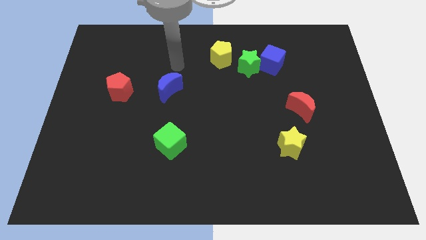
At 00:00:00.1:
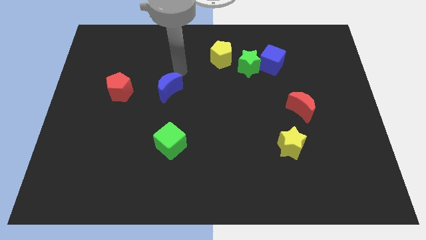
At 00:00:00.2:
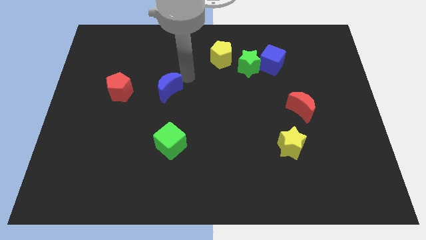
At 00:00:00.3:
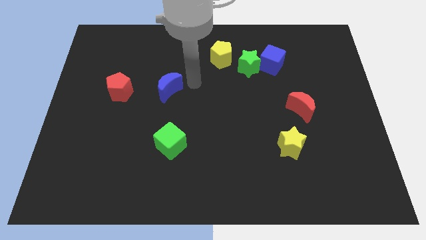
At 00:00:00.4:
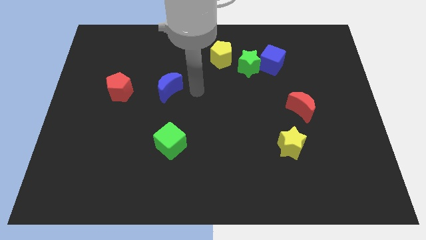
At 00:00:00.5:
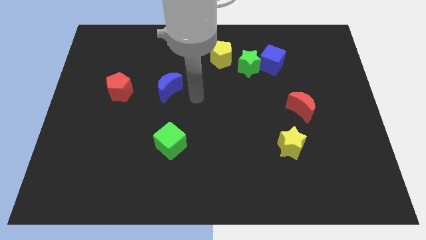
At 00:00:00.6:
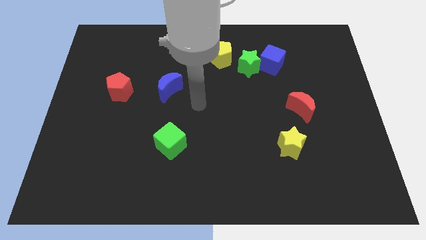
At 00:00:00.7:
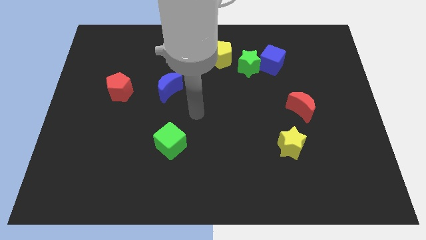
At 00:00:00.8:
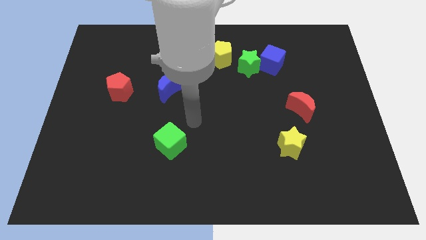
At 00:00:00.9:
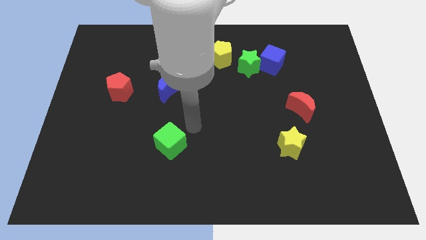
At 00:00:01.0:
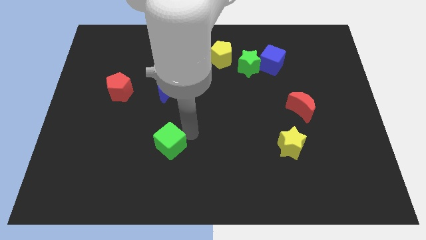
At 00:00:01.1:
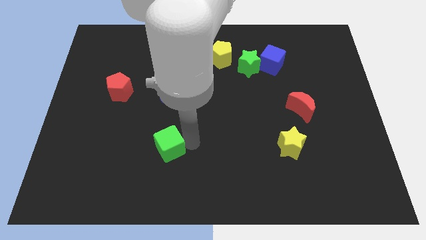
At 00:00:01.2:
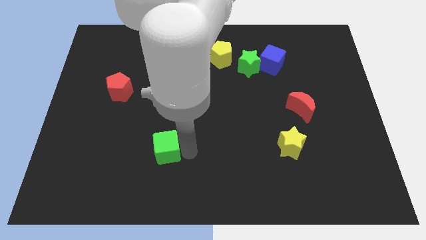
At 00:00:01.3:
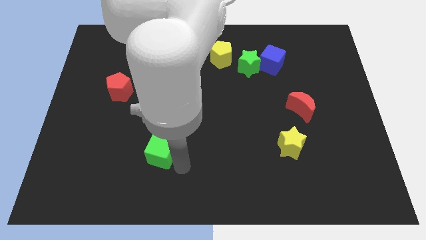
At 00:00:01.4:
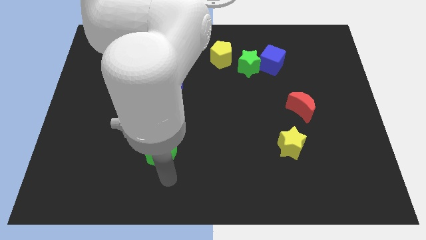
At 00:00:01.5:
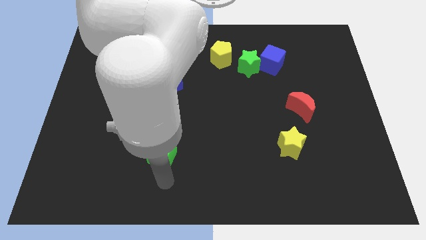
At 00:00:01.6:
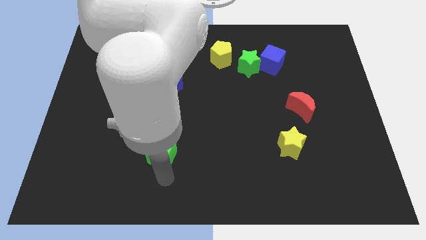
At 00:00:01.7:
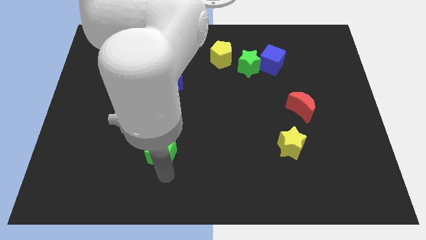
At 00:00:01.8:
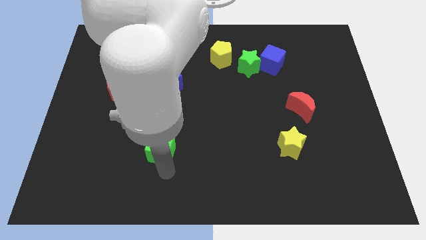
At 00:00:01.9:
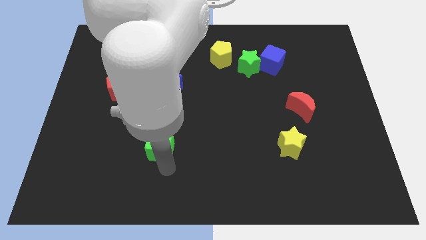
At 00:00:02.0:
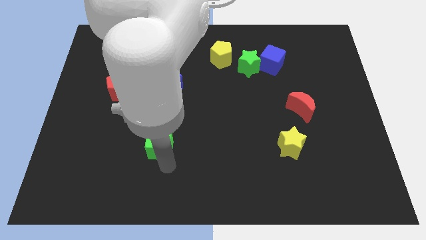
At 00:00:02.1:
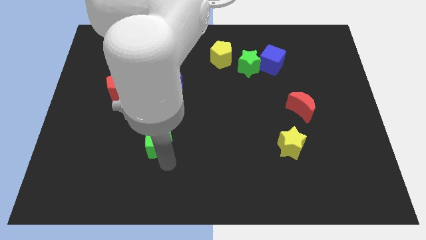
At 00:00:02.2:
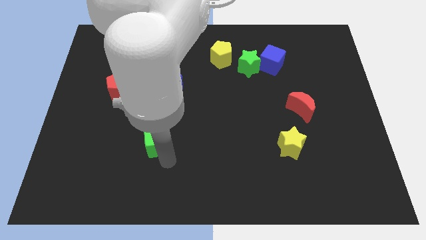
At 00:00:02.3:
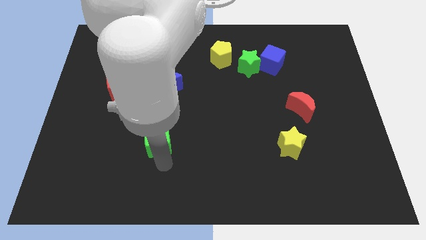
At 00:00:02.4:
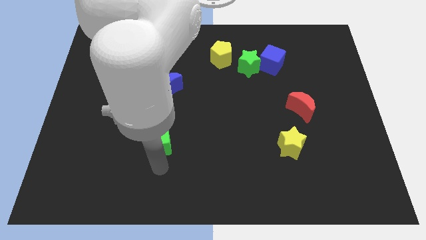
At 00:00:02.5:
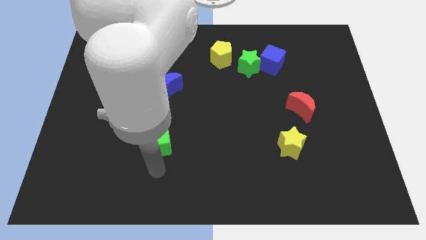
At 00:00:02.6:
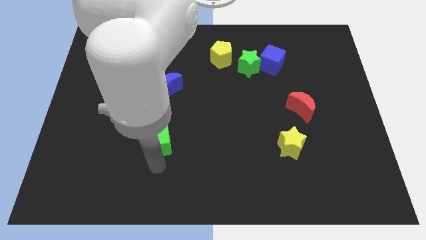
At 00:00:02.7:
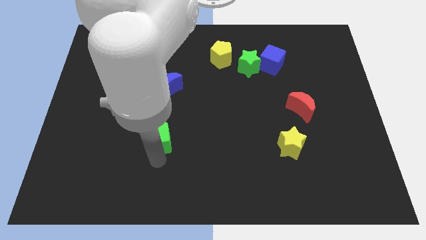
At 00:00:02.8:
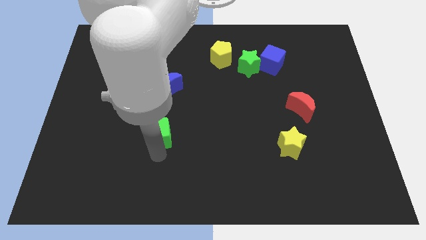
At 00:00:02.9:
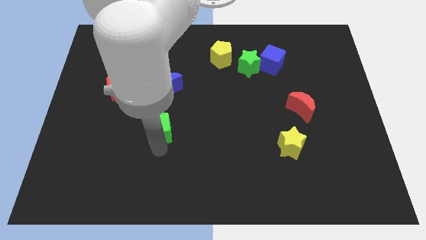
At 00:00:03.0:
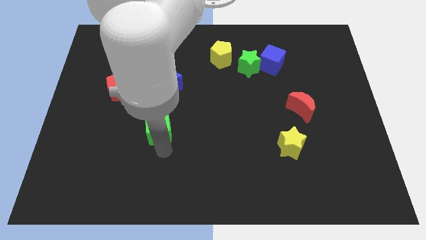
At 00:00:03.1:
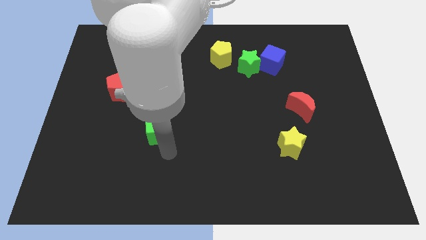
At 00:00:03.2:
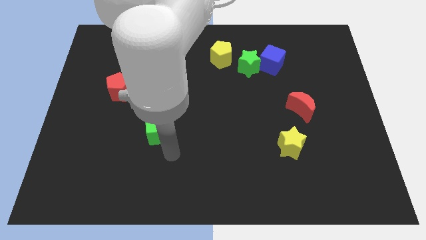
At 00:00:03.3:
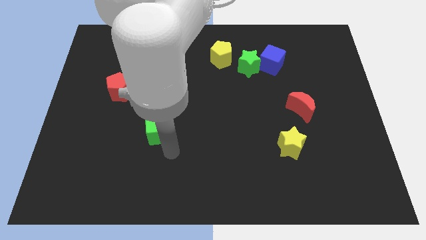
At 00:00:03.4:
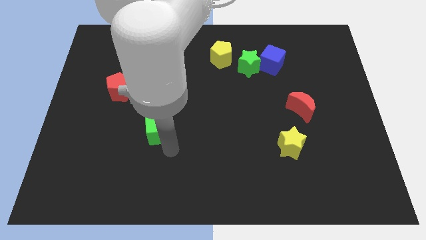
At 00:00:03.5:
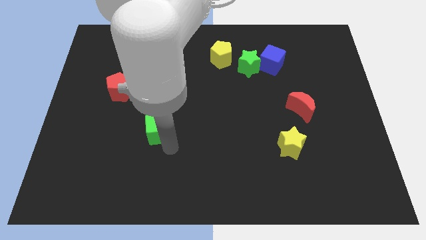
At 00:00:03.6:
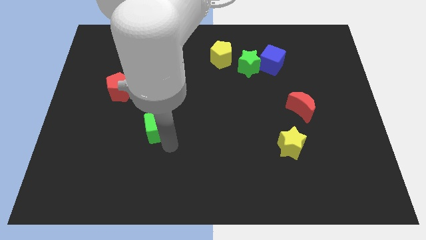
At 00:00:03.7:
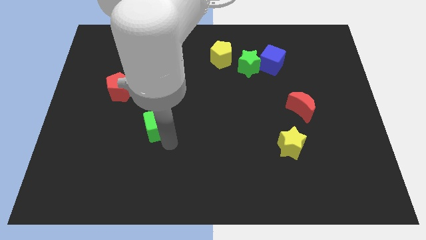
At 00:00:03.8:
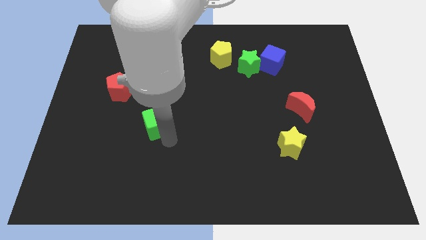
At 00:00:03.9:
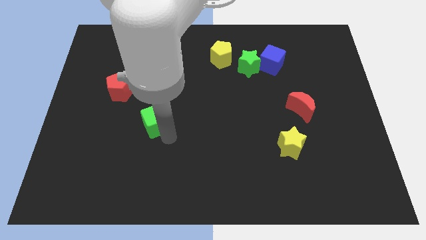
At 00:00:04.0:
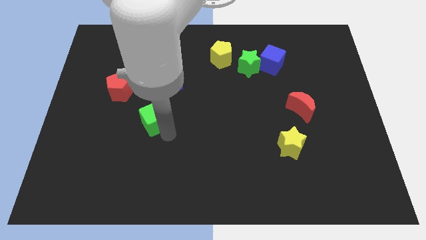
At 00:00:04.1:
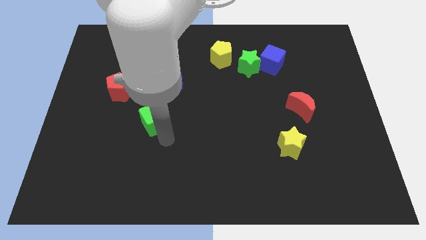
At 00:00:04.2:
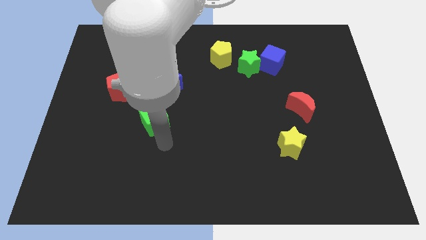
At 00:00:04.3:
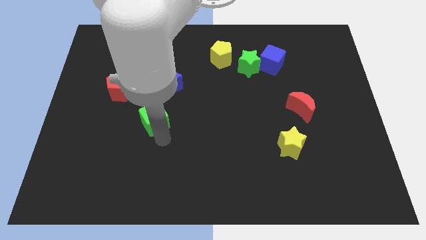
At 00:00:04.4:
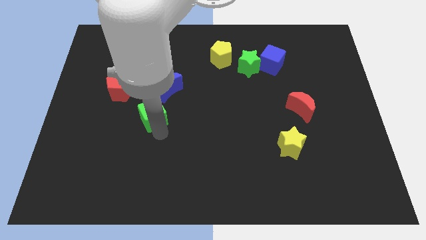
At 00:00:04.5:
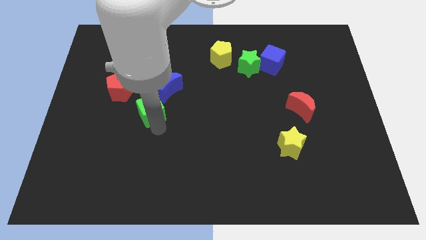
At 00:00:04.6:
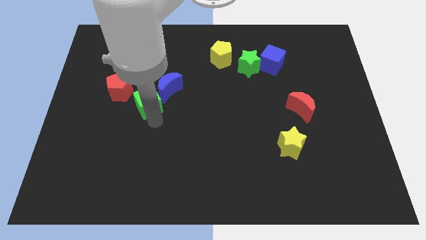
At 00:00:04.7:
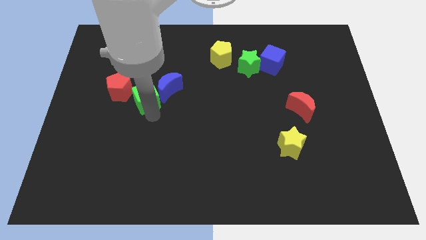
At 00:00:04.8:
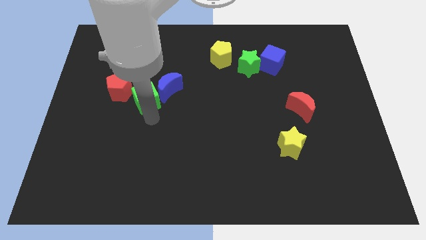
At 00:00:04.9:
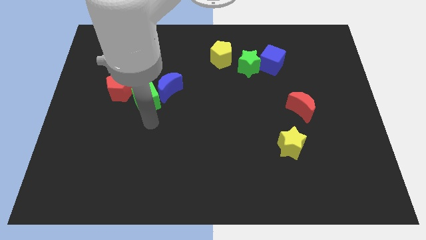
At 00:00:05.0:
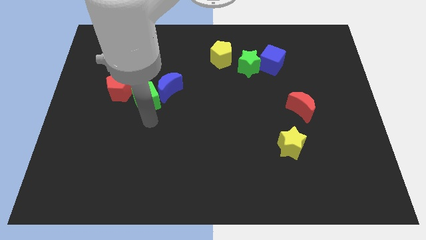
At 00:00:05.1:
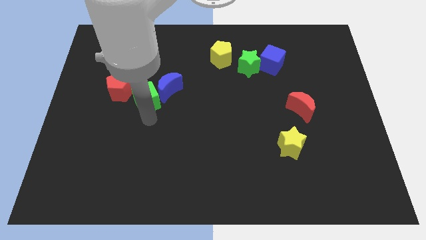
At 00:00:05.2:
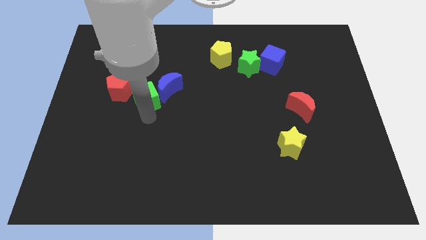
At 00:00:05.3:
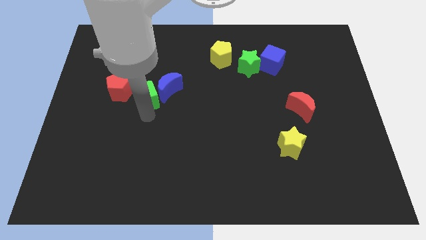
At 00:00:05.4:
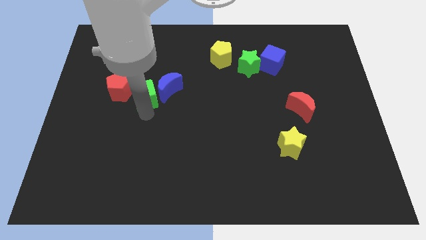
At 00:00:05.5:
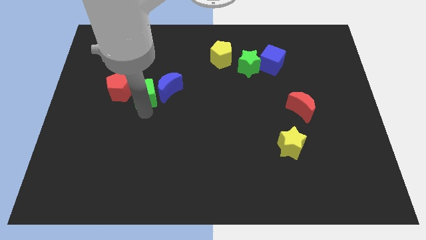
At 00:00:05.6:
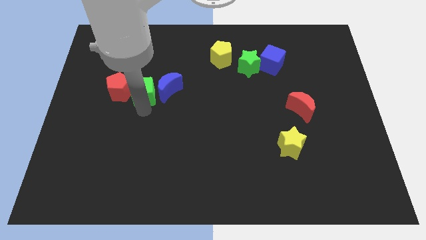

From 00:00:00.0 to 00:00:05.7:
slide the green cube to the top right side of the red pentagon

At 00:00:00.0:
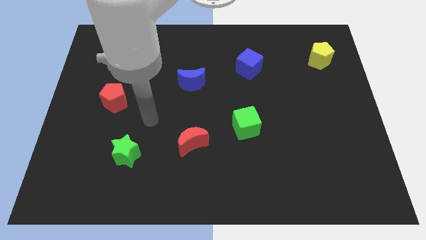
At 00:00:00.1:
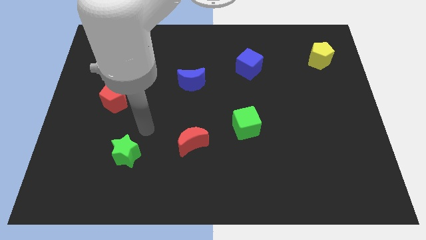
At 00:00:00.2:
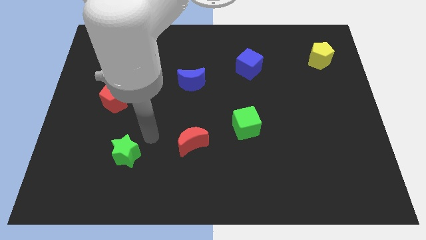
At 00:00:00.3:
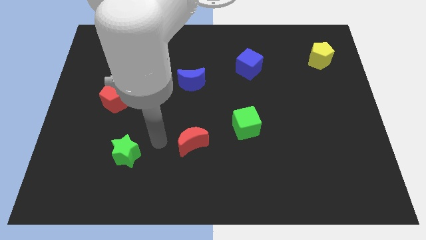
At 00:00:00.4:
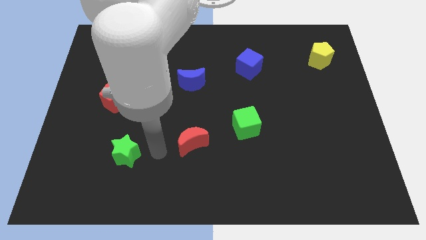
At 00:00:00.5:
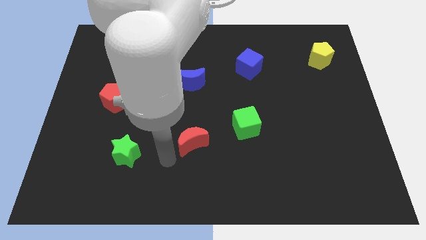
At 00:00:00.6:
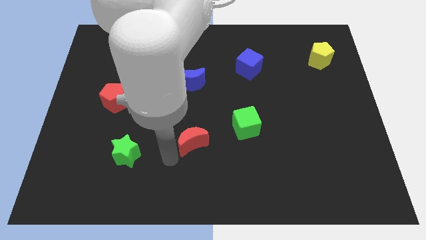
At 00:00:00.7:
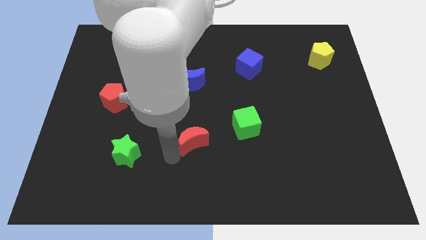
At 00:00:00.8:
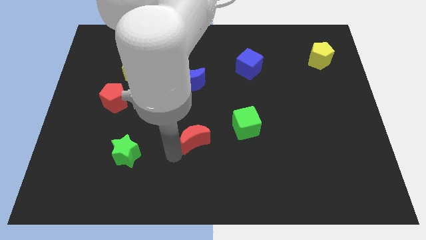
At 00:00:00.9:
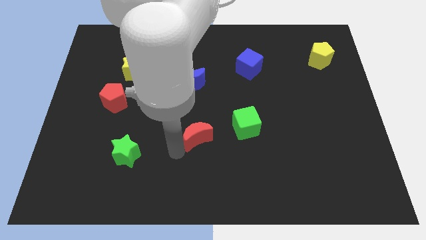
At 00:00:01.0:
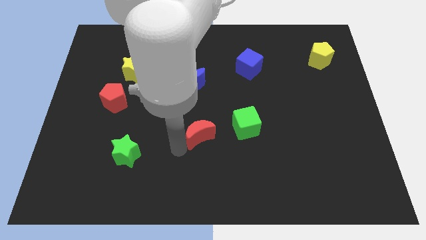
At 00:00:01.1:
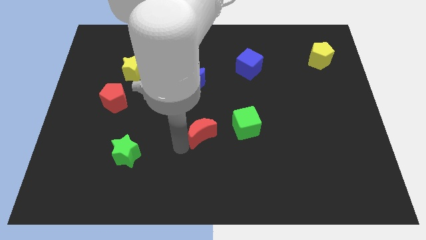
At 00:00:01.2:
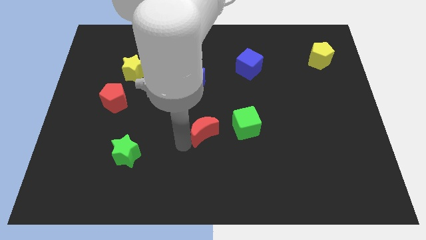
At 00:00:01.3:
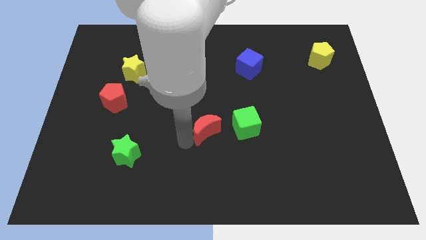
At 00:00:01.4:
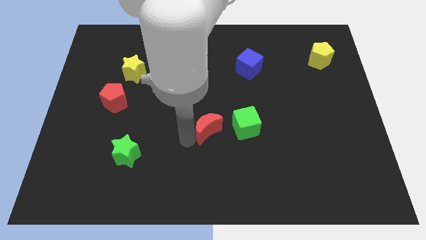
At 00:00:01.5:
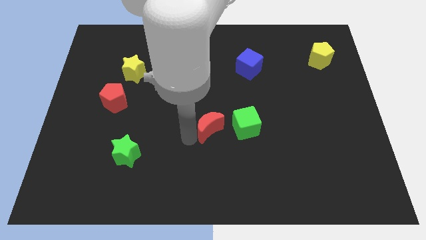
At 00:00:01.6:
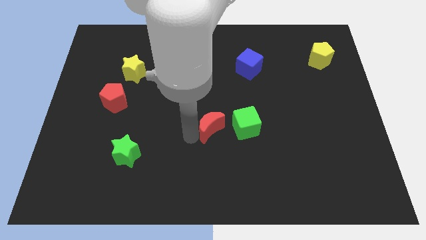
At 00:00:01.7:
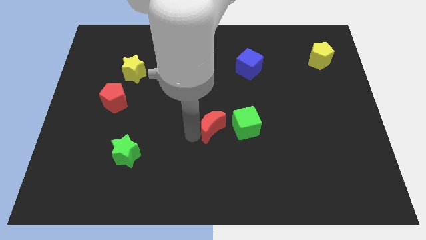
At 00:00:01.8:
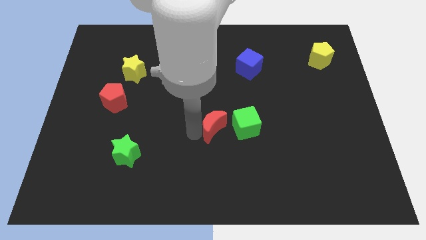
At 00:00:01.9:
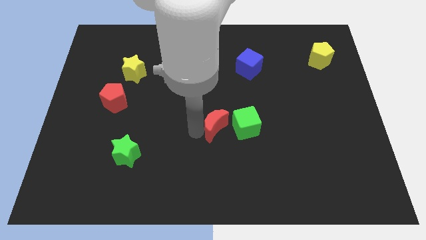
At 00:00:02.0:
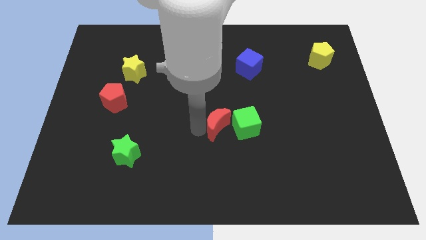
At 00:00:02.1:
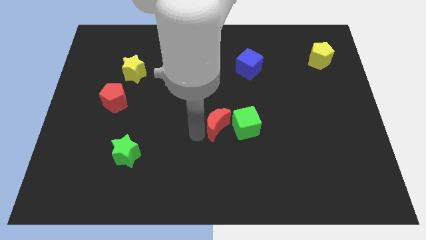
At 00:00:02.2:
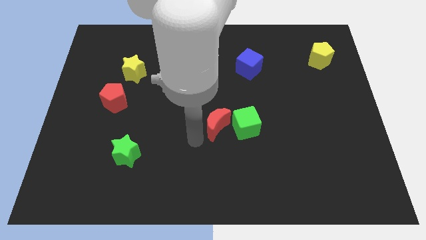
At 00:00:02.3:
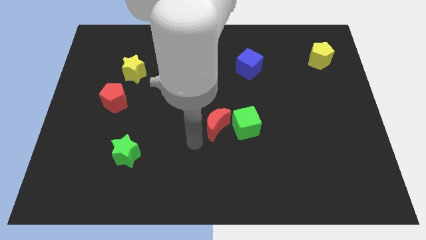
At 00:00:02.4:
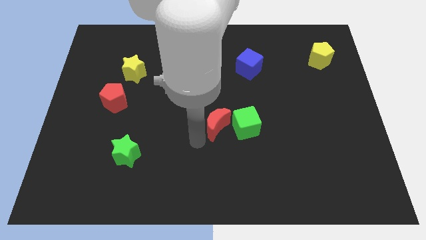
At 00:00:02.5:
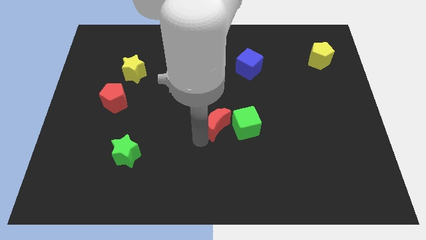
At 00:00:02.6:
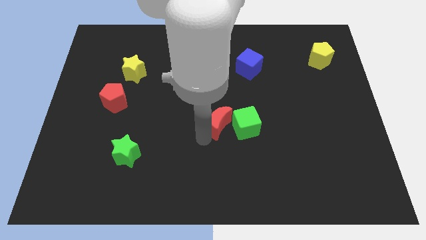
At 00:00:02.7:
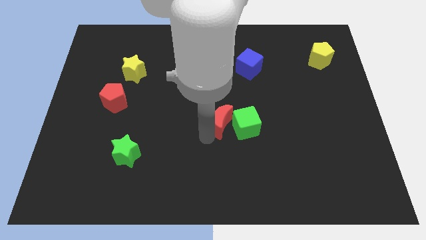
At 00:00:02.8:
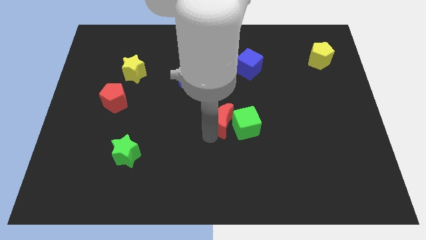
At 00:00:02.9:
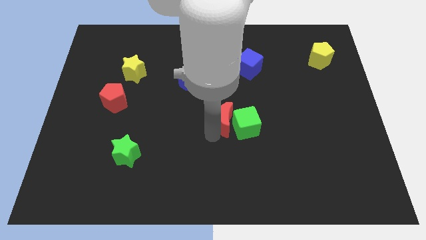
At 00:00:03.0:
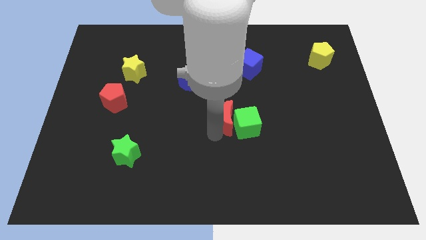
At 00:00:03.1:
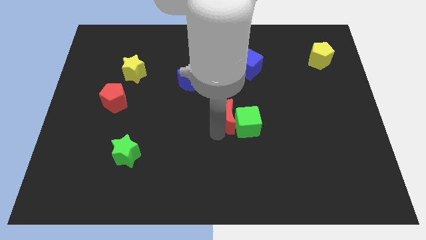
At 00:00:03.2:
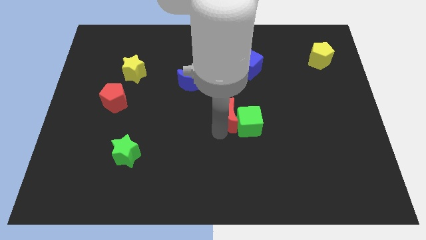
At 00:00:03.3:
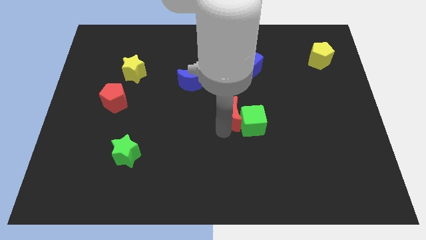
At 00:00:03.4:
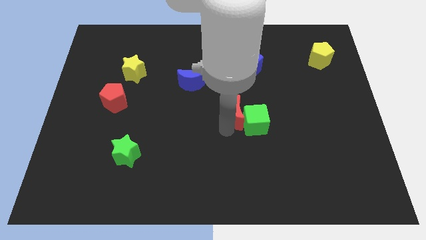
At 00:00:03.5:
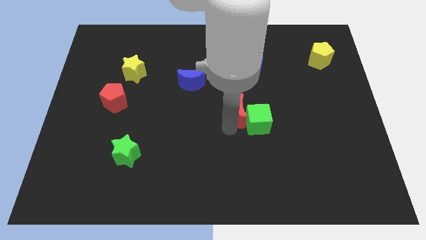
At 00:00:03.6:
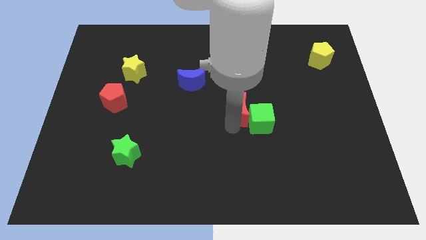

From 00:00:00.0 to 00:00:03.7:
slide the red moon below the blue cube
